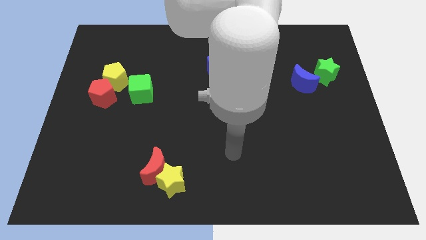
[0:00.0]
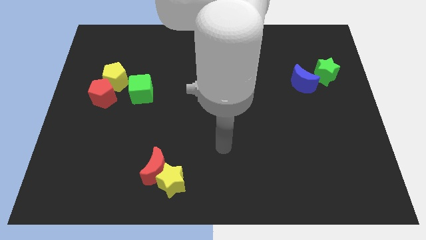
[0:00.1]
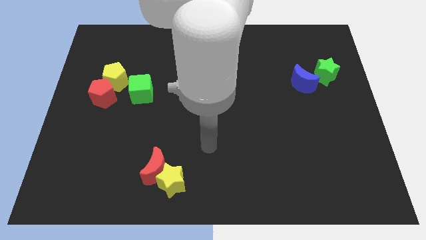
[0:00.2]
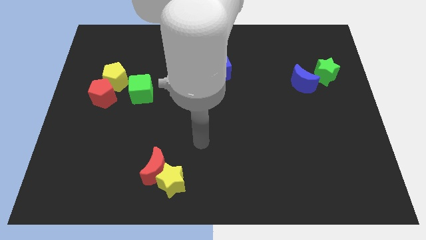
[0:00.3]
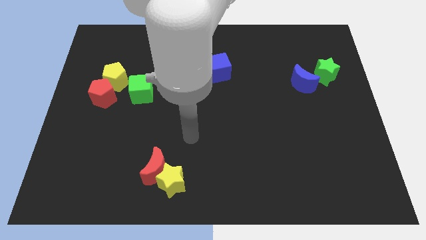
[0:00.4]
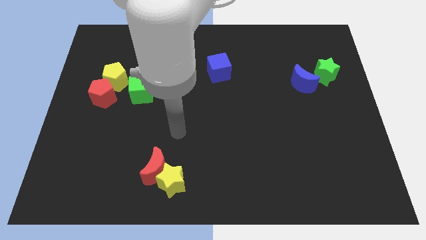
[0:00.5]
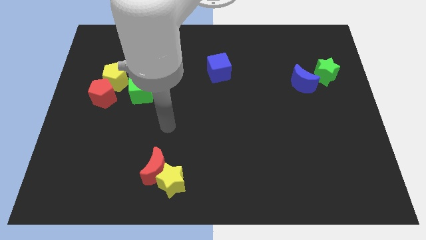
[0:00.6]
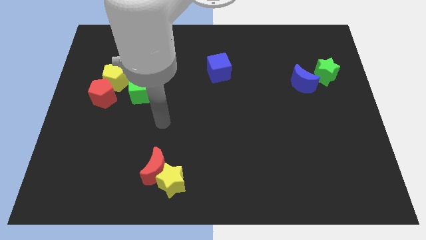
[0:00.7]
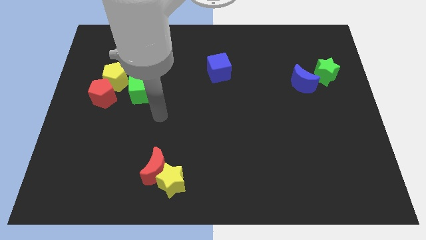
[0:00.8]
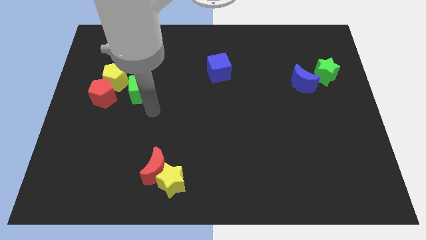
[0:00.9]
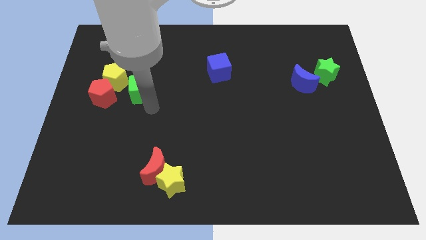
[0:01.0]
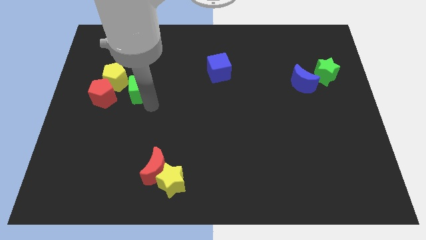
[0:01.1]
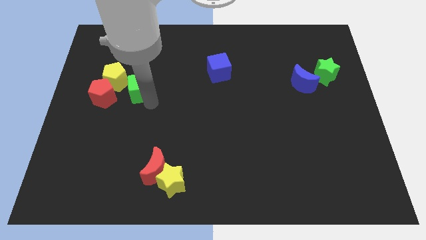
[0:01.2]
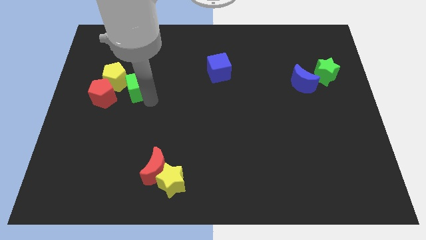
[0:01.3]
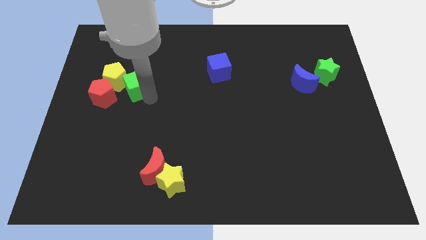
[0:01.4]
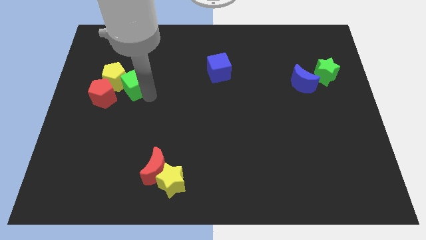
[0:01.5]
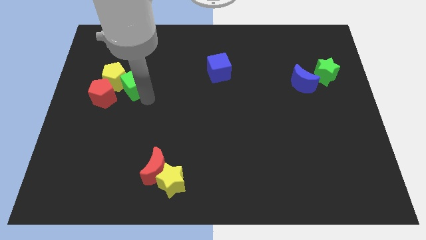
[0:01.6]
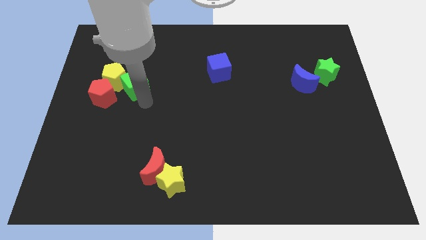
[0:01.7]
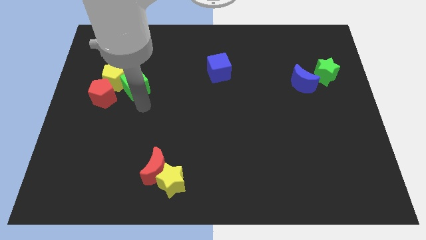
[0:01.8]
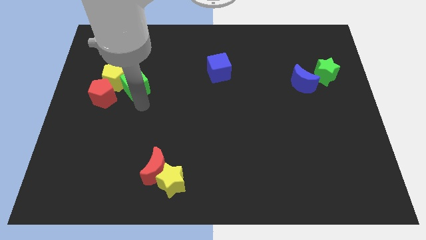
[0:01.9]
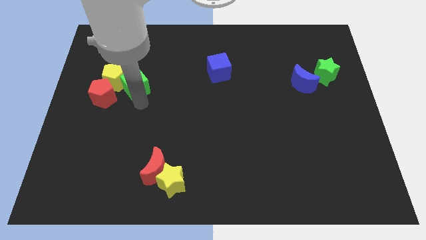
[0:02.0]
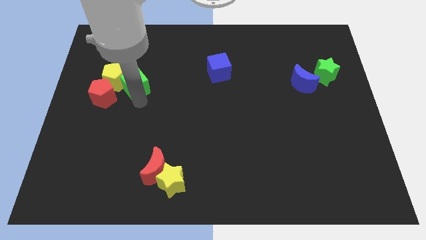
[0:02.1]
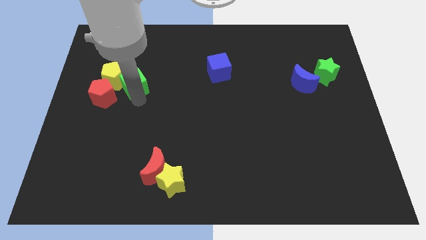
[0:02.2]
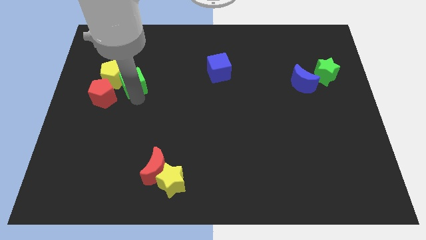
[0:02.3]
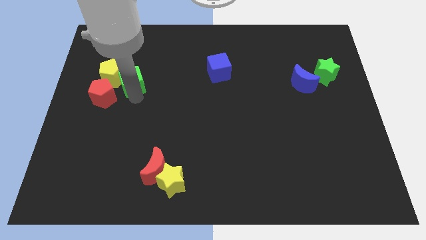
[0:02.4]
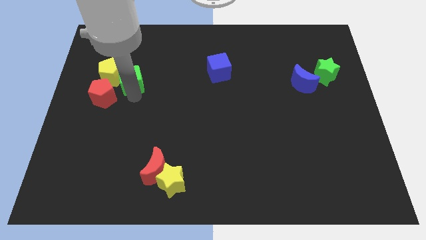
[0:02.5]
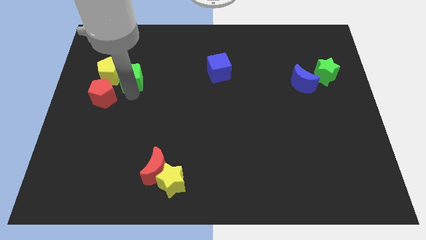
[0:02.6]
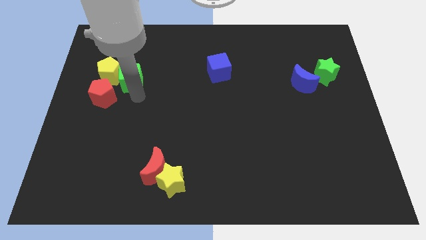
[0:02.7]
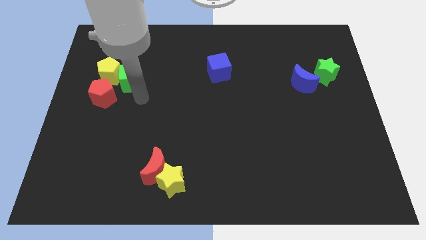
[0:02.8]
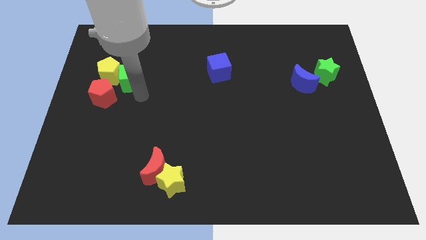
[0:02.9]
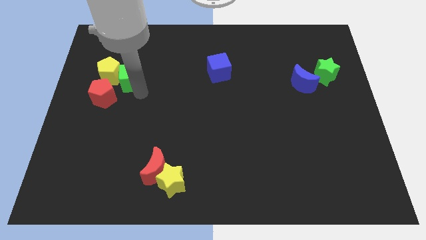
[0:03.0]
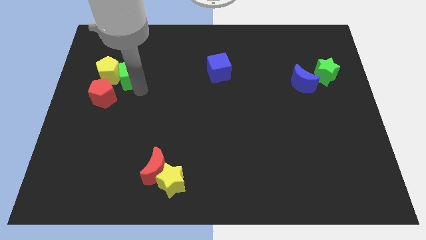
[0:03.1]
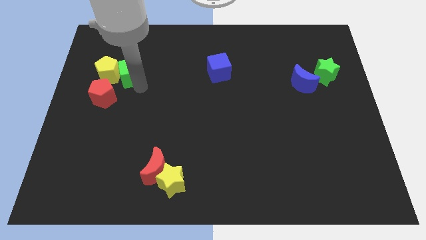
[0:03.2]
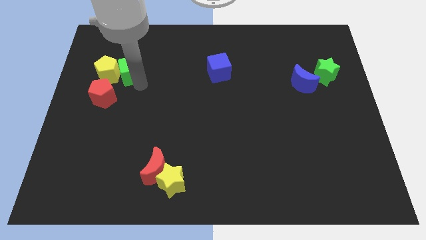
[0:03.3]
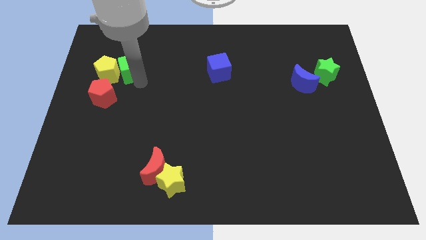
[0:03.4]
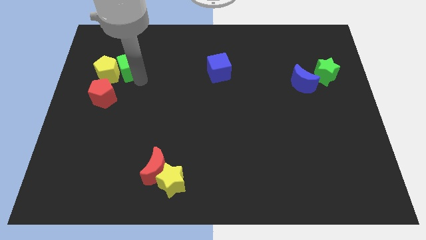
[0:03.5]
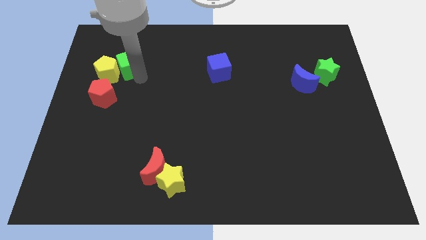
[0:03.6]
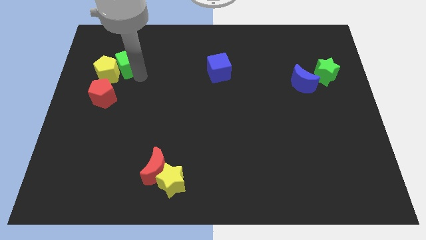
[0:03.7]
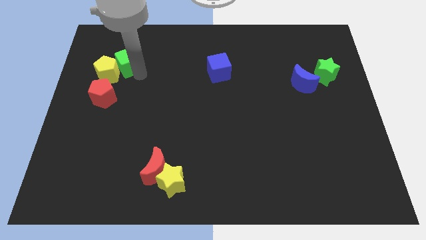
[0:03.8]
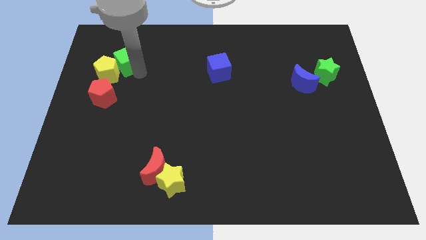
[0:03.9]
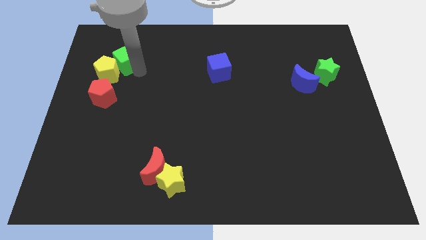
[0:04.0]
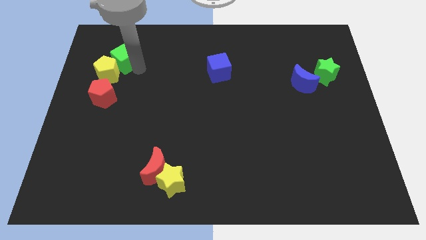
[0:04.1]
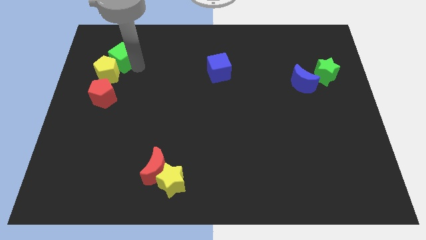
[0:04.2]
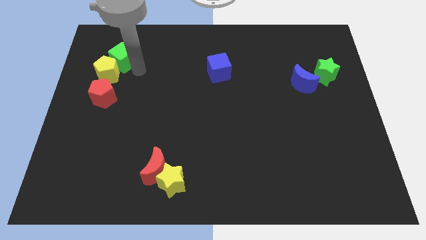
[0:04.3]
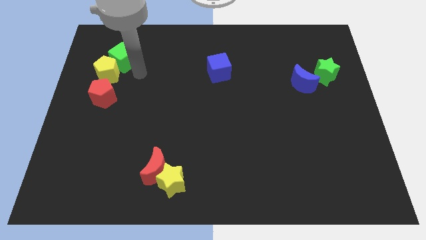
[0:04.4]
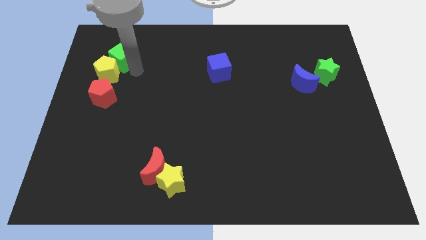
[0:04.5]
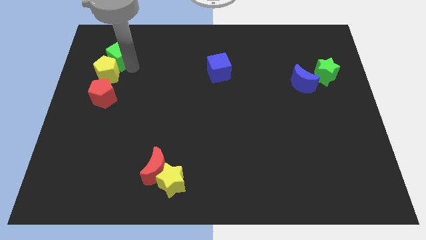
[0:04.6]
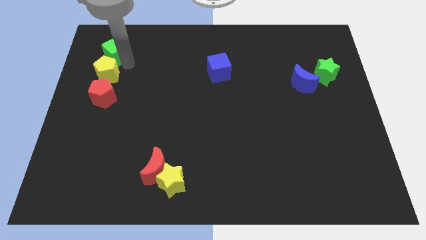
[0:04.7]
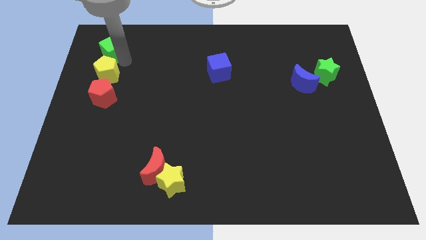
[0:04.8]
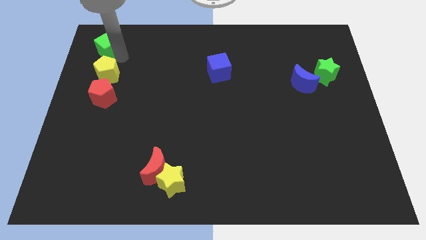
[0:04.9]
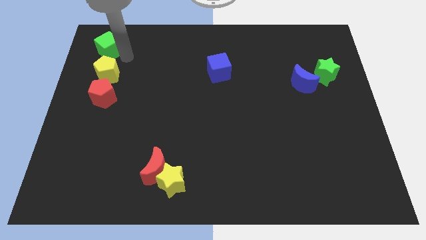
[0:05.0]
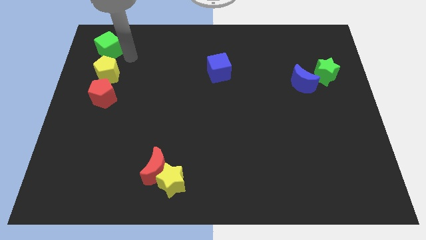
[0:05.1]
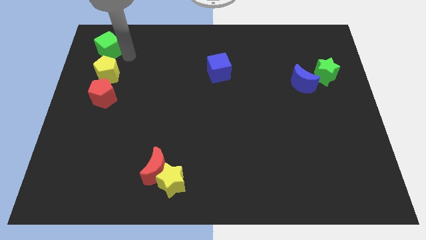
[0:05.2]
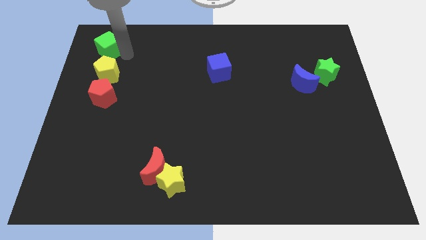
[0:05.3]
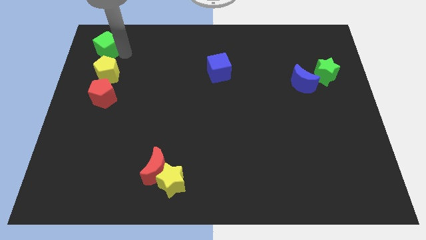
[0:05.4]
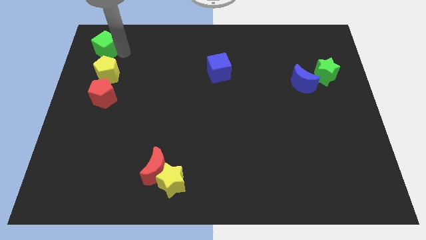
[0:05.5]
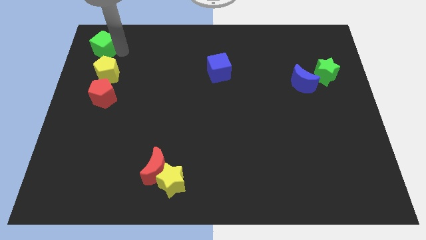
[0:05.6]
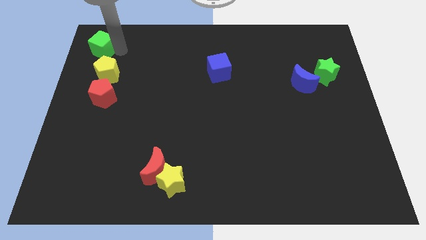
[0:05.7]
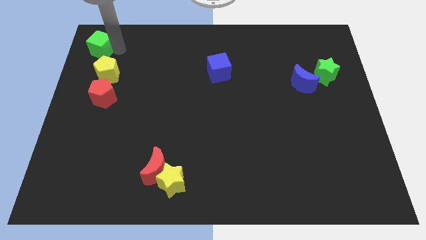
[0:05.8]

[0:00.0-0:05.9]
move the green cube to the upper left corner

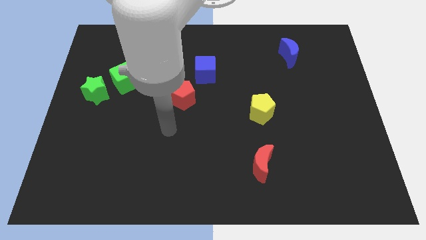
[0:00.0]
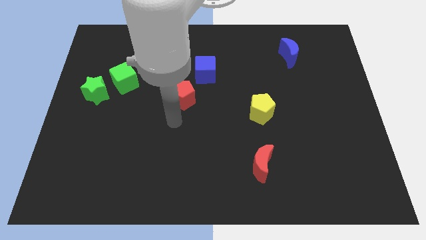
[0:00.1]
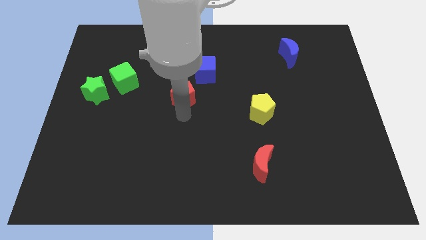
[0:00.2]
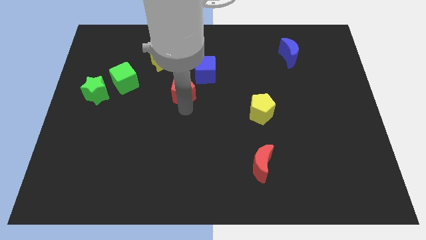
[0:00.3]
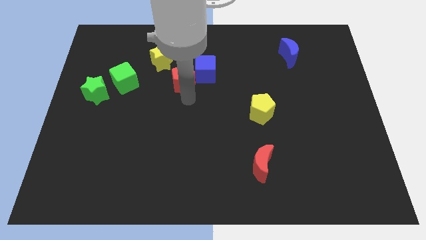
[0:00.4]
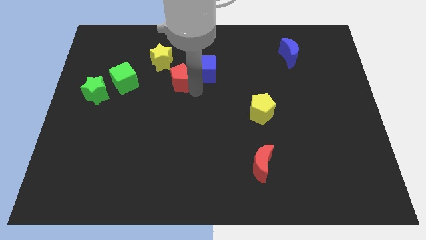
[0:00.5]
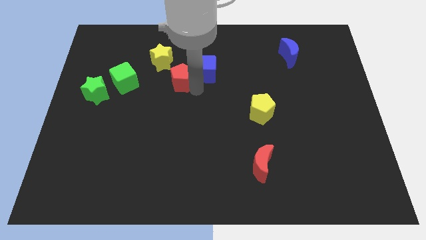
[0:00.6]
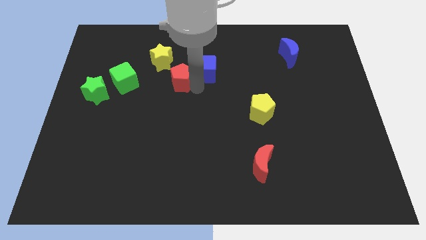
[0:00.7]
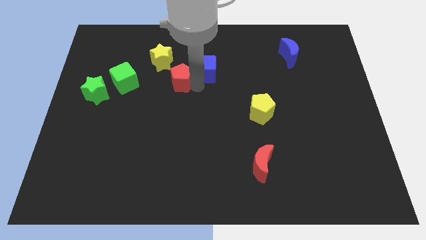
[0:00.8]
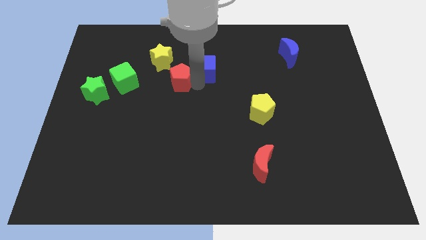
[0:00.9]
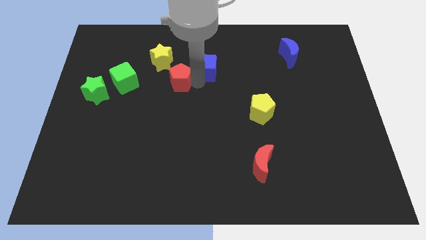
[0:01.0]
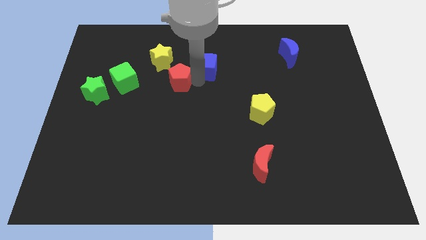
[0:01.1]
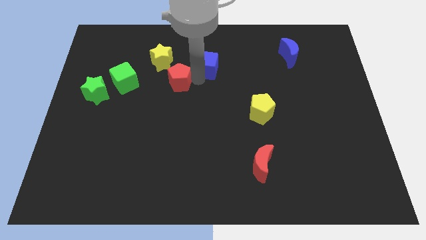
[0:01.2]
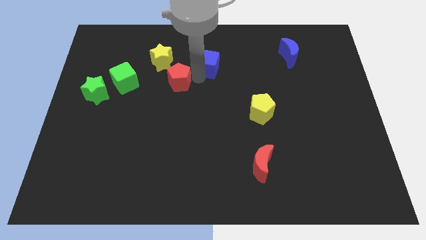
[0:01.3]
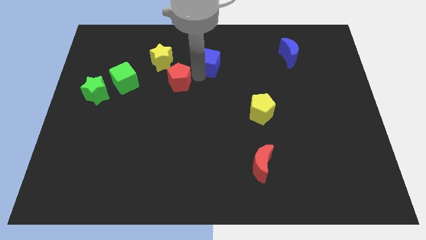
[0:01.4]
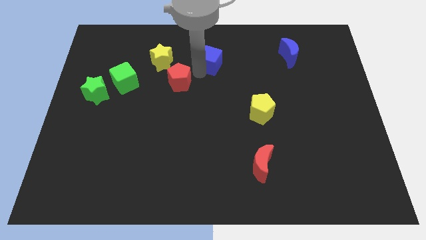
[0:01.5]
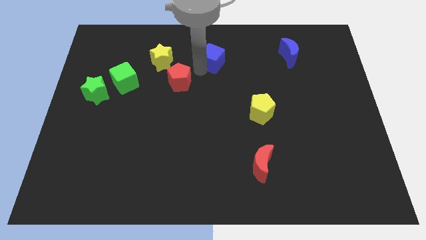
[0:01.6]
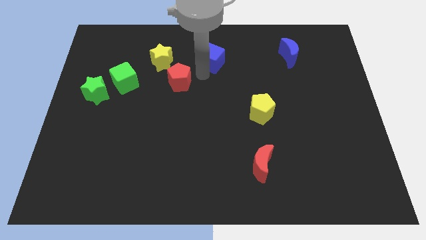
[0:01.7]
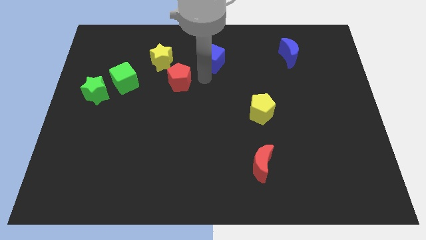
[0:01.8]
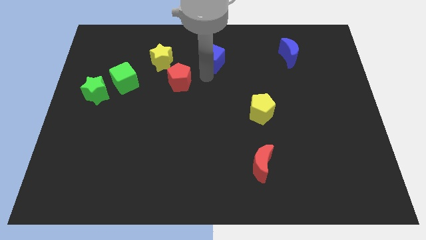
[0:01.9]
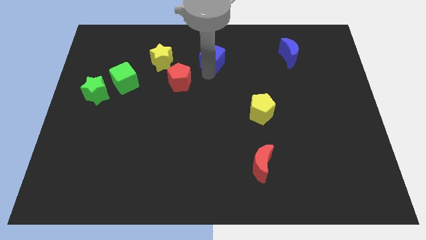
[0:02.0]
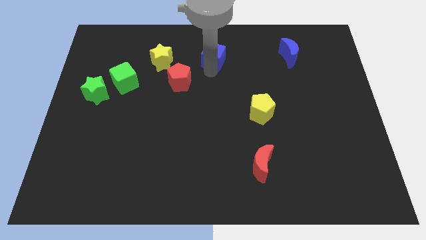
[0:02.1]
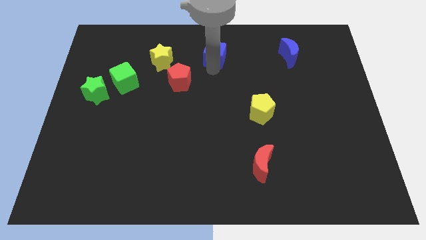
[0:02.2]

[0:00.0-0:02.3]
move the blue cube to the top
